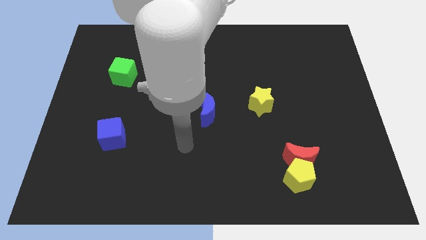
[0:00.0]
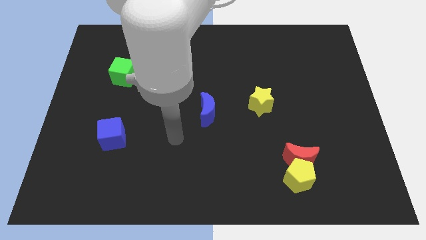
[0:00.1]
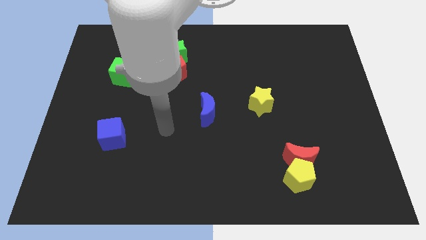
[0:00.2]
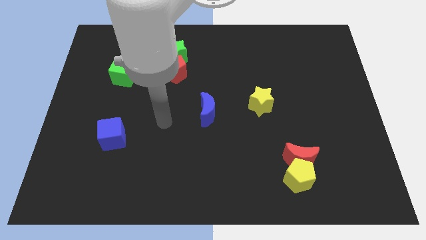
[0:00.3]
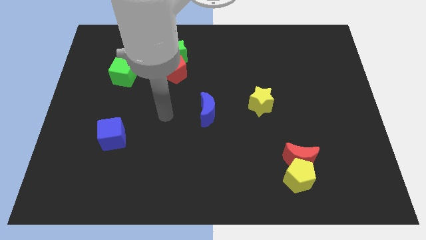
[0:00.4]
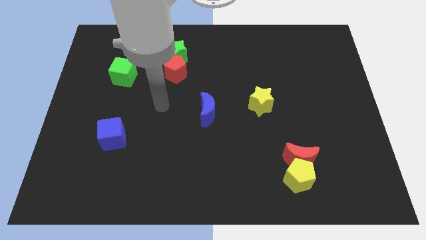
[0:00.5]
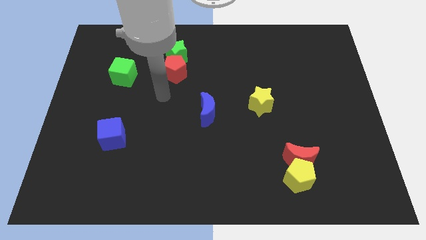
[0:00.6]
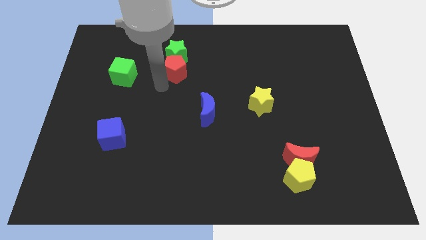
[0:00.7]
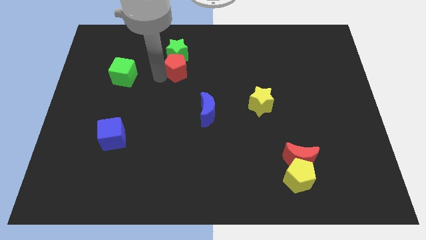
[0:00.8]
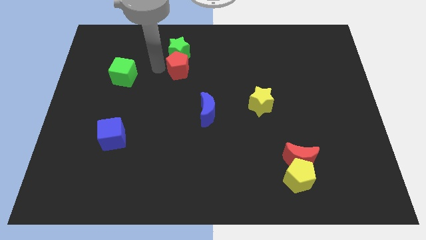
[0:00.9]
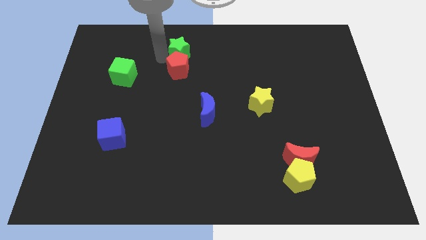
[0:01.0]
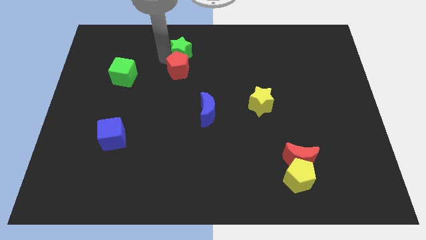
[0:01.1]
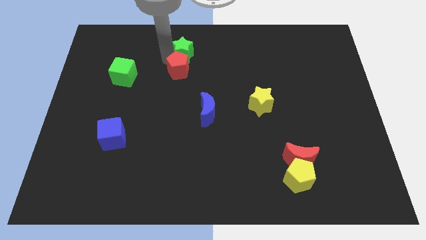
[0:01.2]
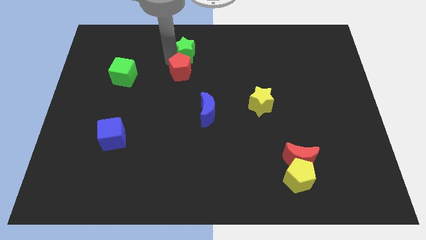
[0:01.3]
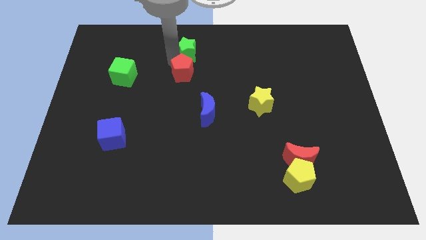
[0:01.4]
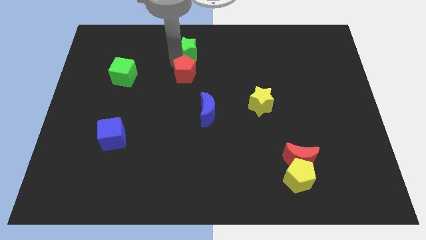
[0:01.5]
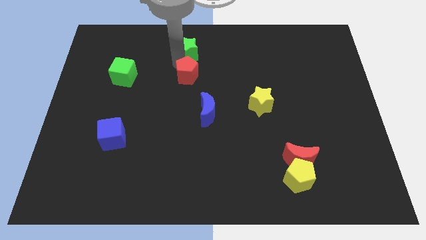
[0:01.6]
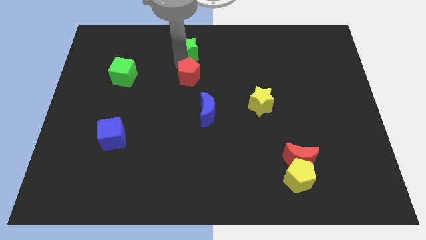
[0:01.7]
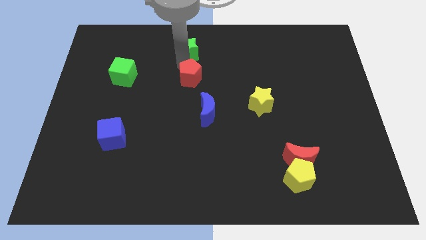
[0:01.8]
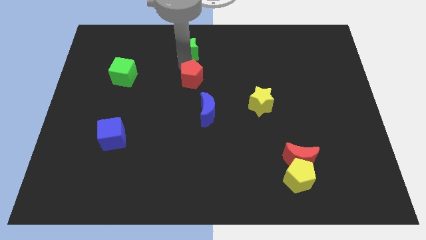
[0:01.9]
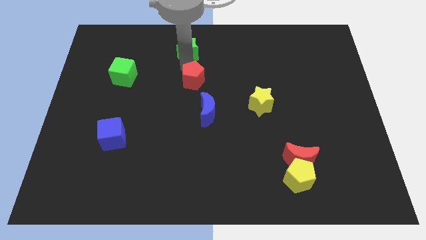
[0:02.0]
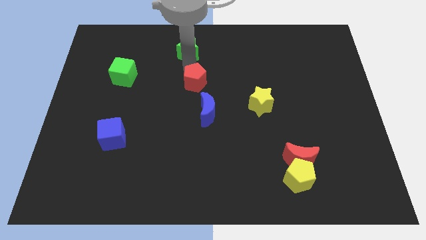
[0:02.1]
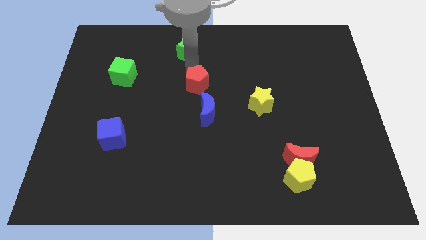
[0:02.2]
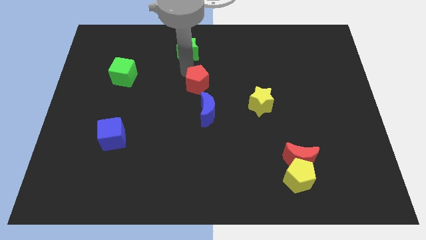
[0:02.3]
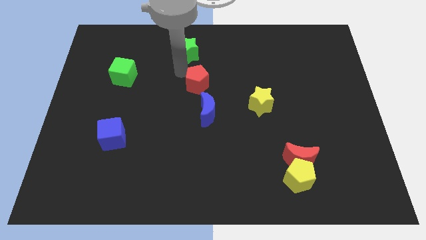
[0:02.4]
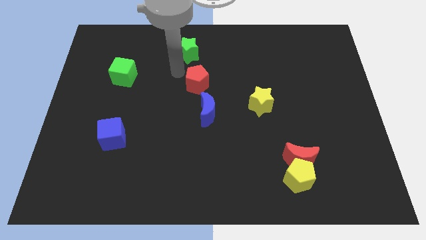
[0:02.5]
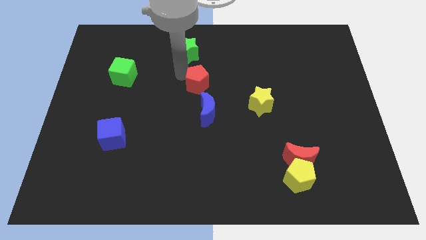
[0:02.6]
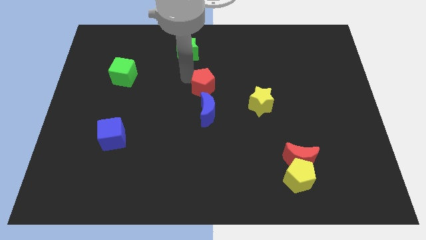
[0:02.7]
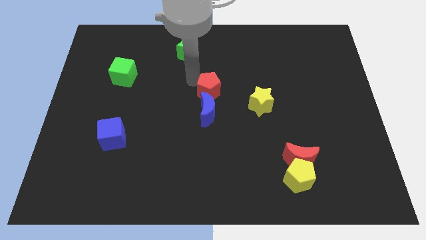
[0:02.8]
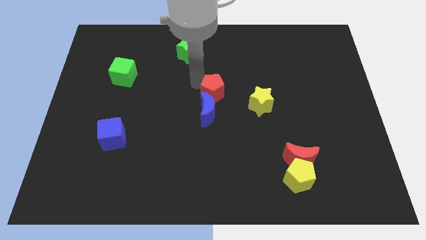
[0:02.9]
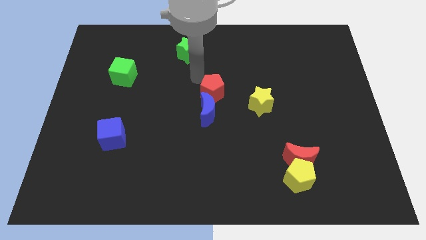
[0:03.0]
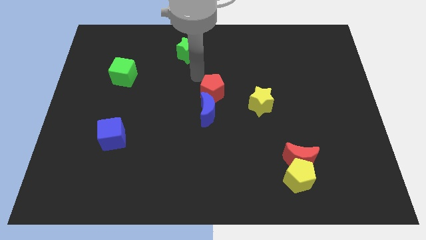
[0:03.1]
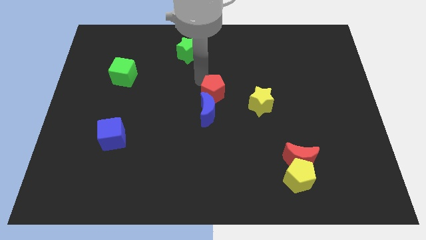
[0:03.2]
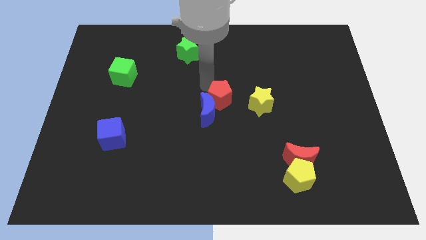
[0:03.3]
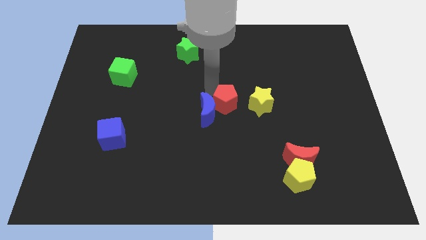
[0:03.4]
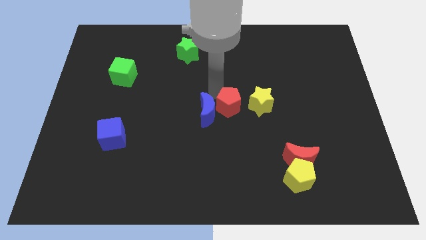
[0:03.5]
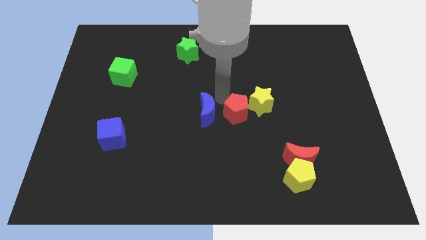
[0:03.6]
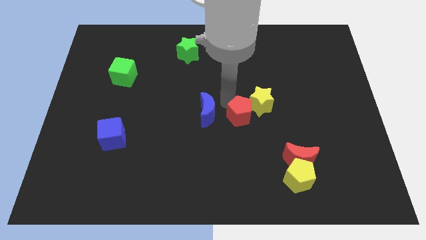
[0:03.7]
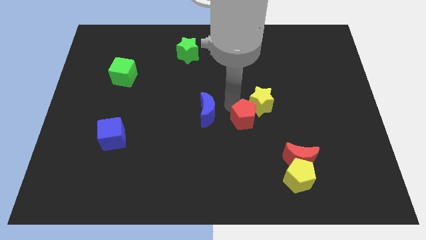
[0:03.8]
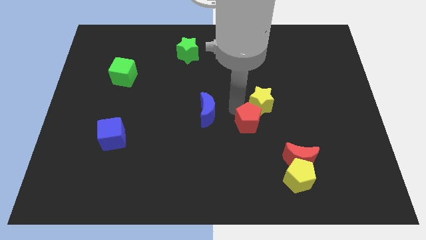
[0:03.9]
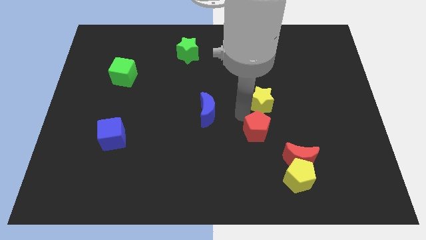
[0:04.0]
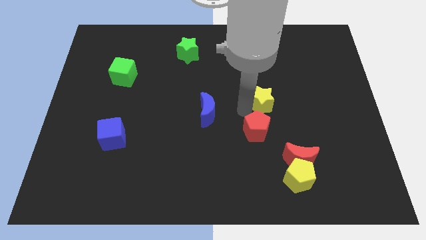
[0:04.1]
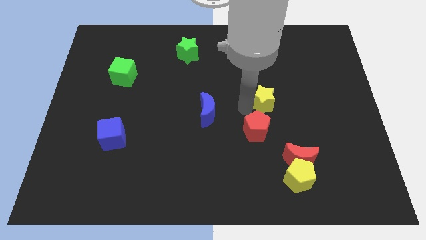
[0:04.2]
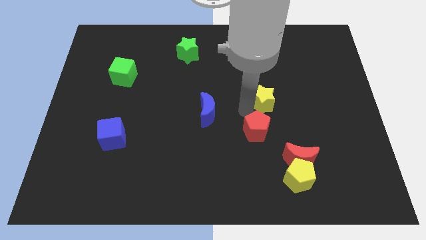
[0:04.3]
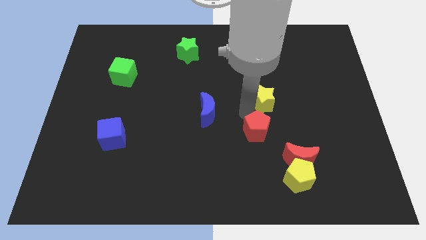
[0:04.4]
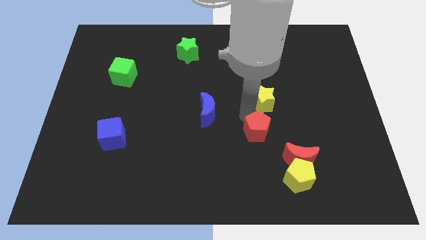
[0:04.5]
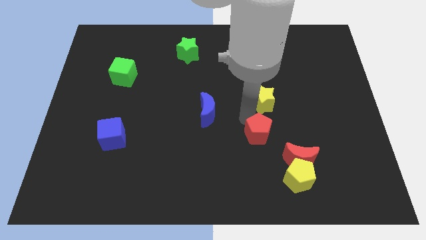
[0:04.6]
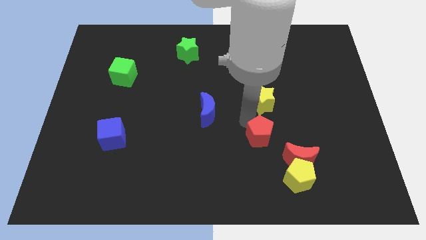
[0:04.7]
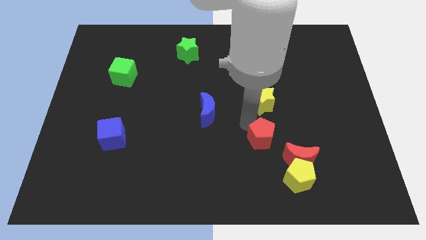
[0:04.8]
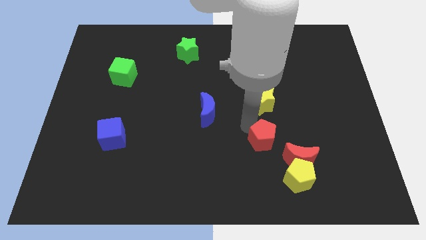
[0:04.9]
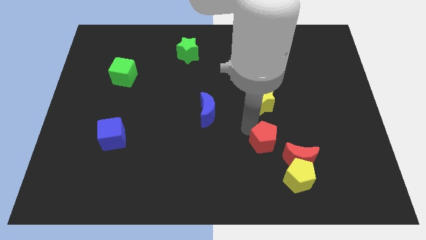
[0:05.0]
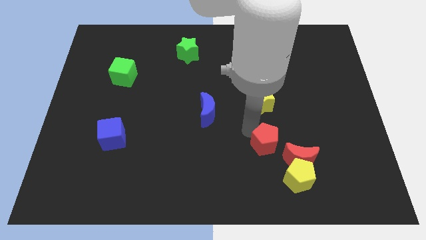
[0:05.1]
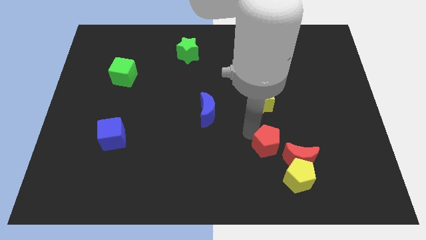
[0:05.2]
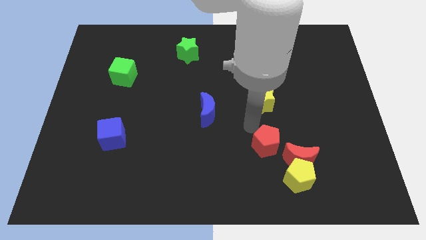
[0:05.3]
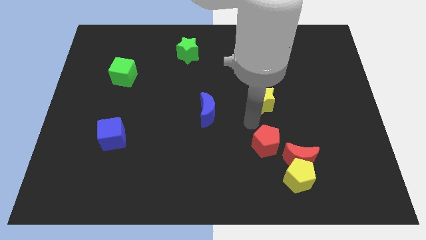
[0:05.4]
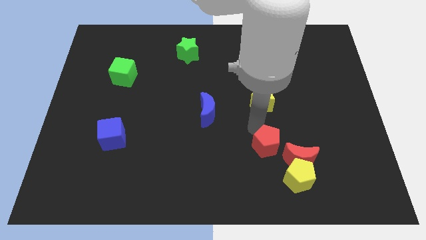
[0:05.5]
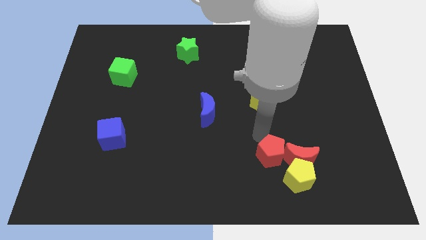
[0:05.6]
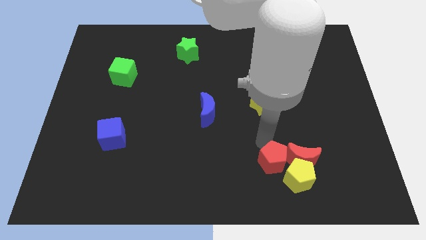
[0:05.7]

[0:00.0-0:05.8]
put the red pentagon close to the yellow pentagon

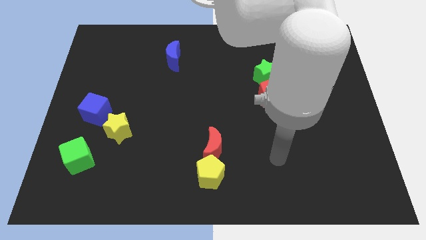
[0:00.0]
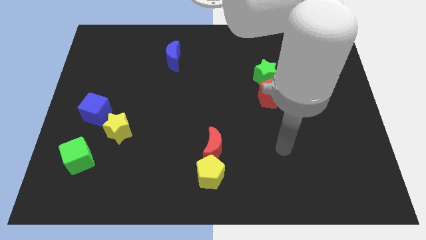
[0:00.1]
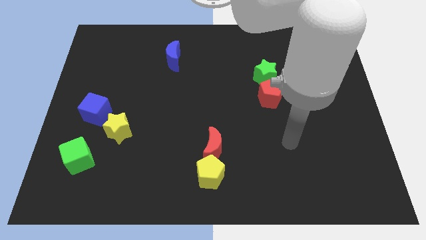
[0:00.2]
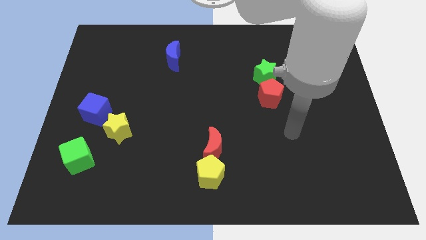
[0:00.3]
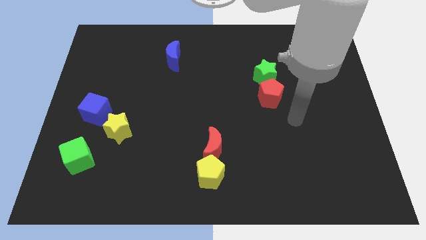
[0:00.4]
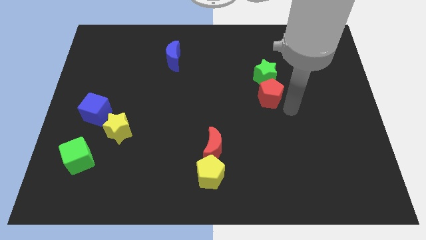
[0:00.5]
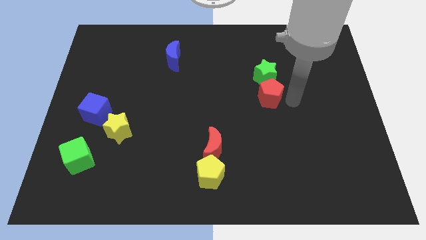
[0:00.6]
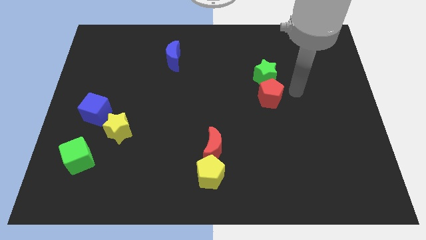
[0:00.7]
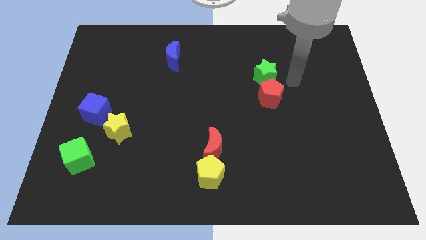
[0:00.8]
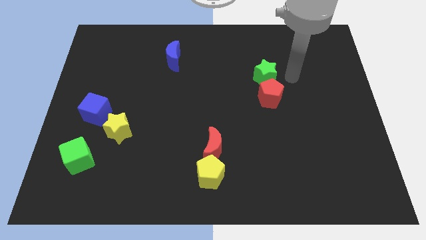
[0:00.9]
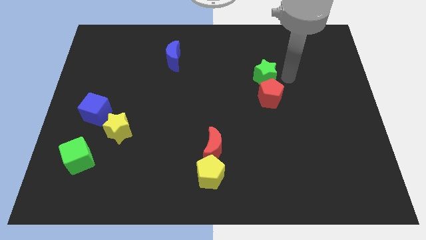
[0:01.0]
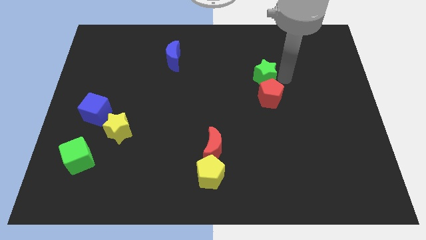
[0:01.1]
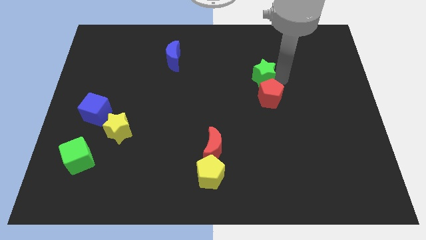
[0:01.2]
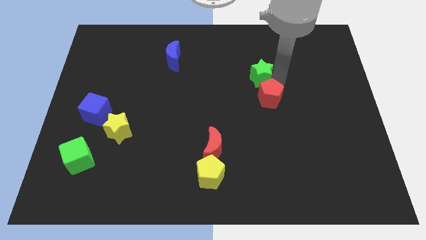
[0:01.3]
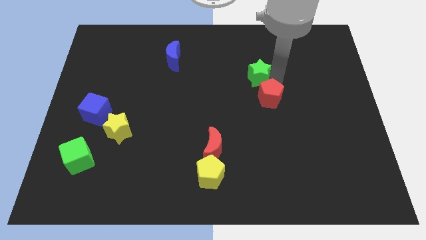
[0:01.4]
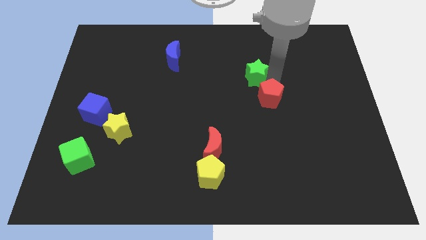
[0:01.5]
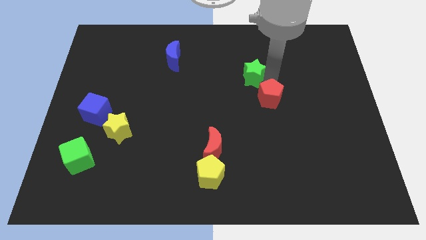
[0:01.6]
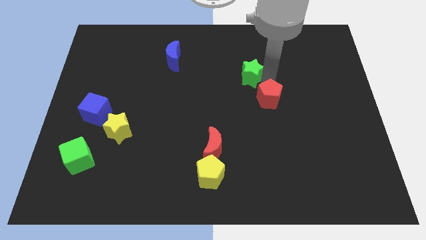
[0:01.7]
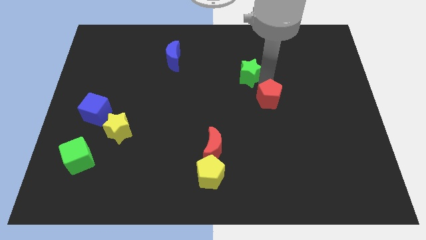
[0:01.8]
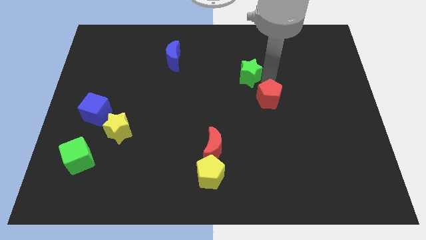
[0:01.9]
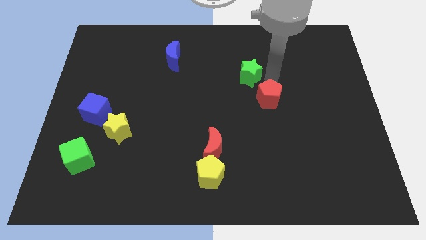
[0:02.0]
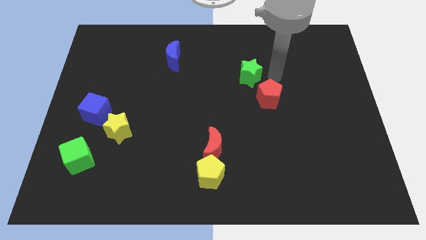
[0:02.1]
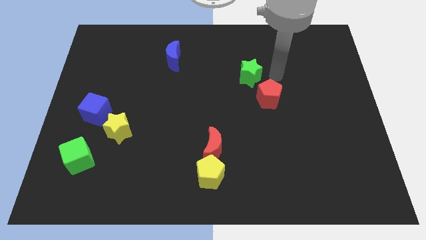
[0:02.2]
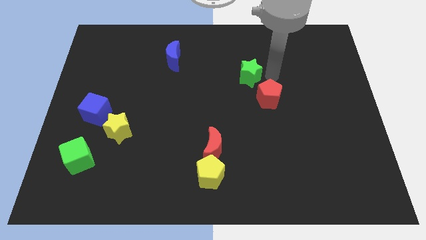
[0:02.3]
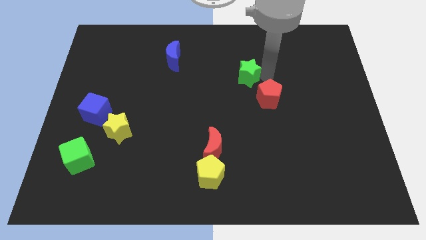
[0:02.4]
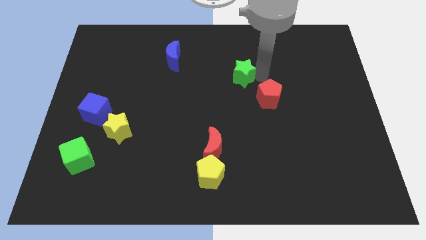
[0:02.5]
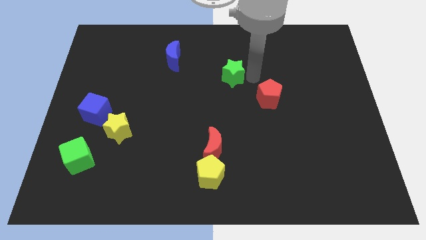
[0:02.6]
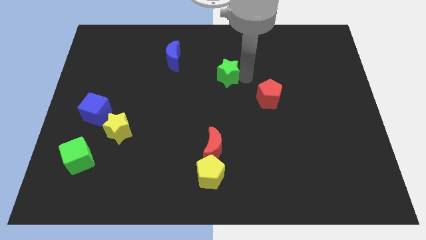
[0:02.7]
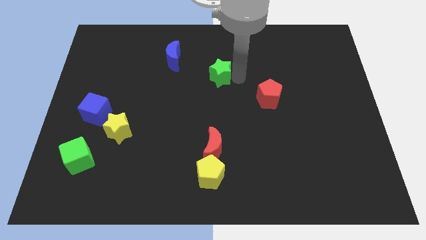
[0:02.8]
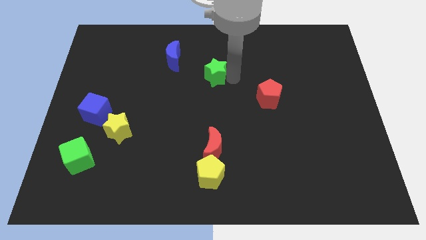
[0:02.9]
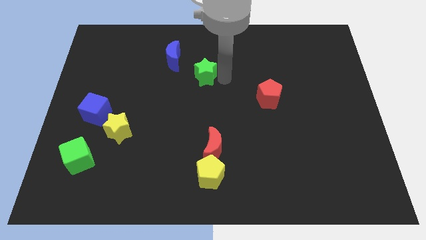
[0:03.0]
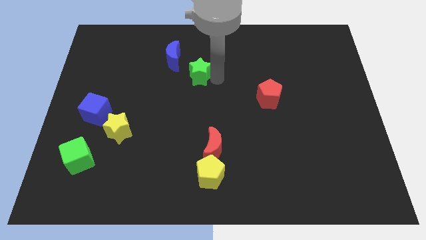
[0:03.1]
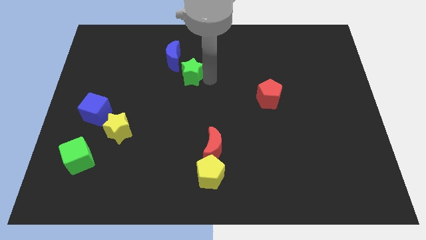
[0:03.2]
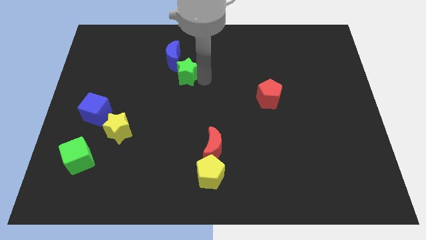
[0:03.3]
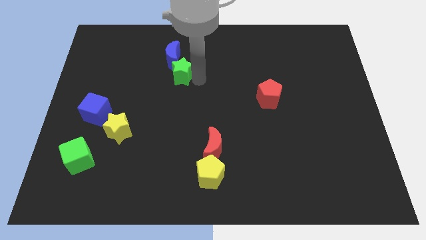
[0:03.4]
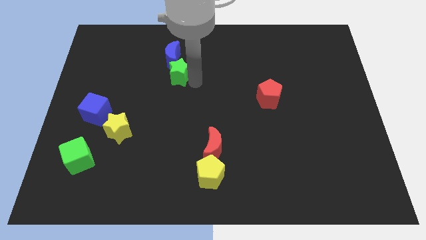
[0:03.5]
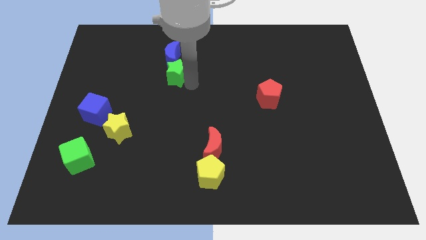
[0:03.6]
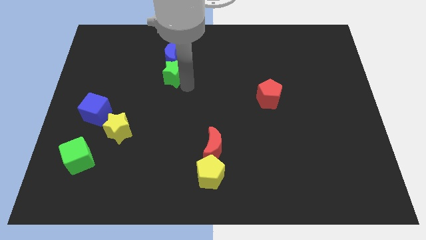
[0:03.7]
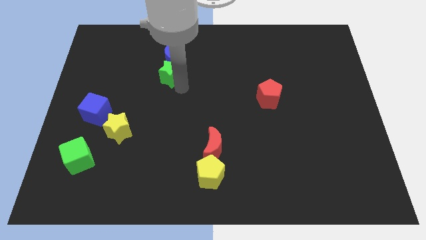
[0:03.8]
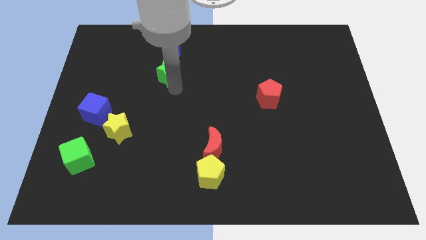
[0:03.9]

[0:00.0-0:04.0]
put the green star close to the blue moon
